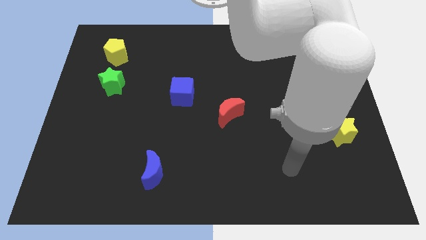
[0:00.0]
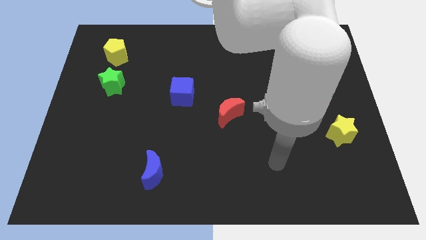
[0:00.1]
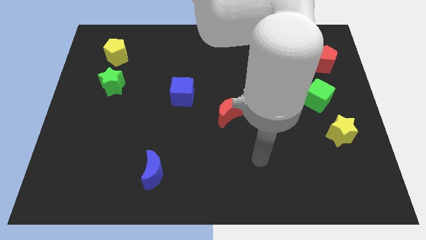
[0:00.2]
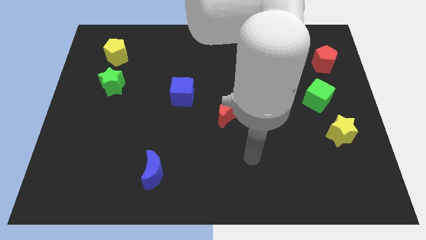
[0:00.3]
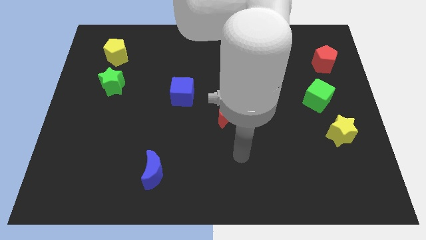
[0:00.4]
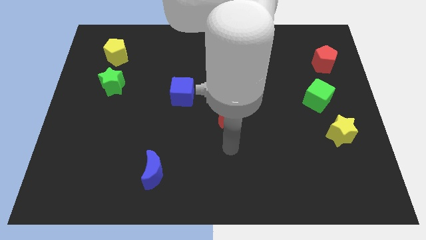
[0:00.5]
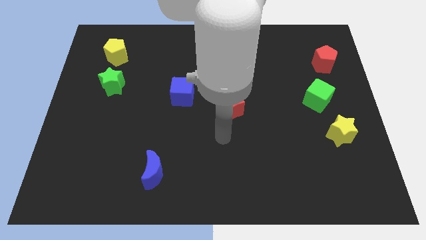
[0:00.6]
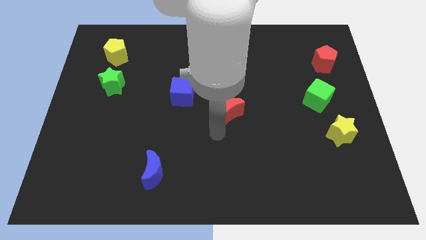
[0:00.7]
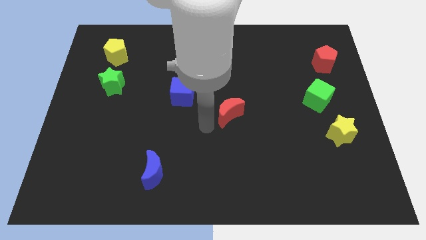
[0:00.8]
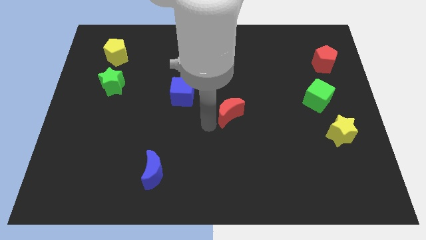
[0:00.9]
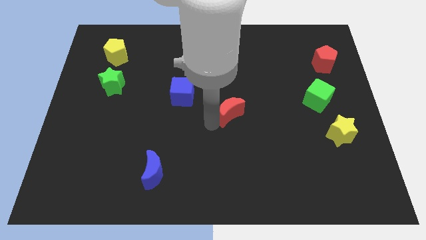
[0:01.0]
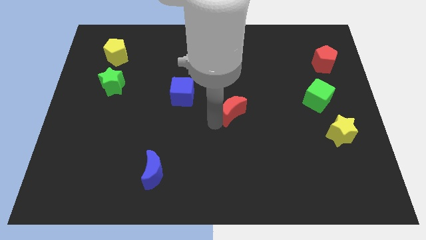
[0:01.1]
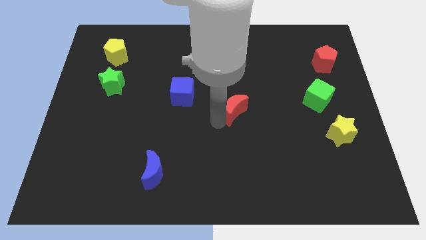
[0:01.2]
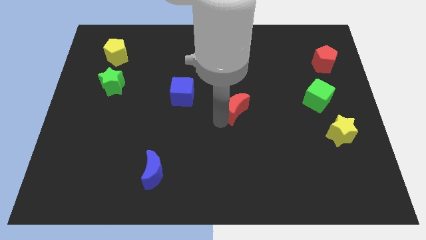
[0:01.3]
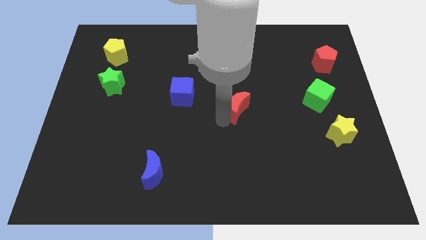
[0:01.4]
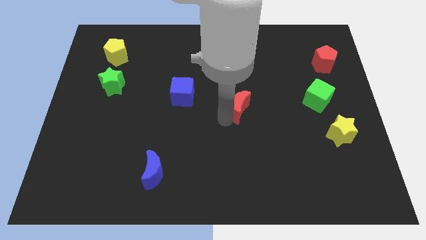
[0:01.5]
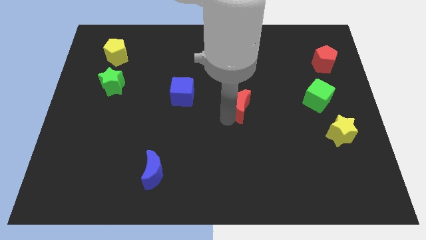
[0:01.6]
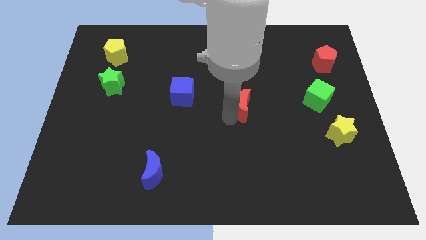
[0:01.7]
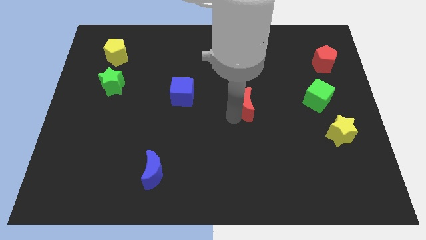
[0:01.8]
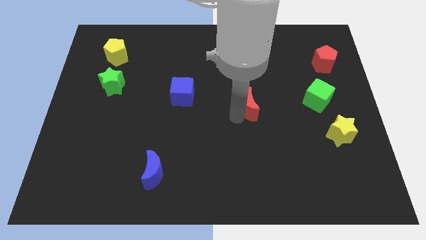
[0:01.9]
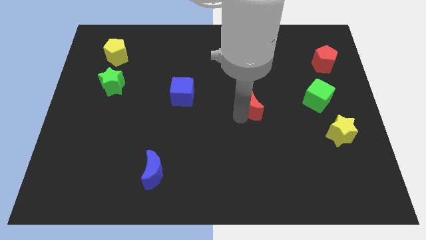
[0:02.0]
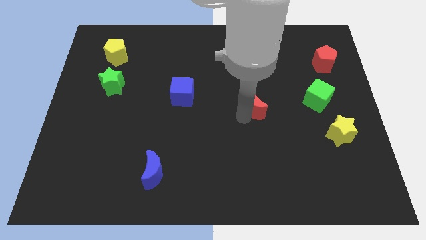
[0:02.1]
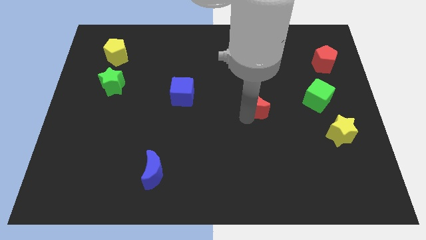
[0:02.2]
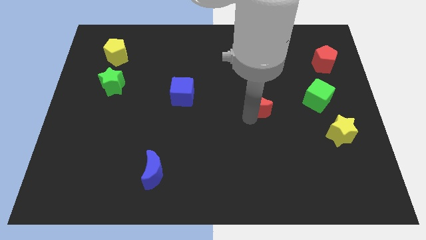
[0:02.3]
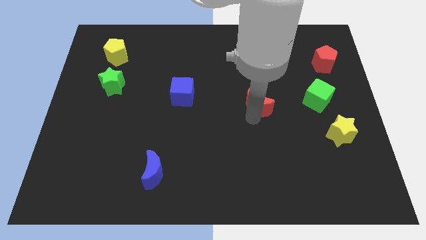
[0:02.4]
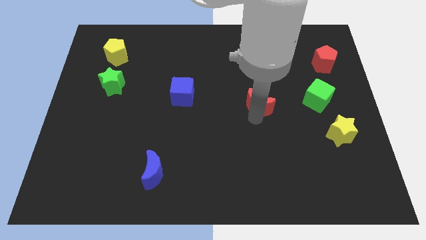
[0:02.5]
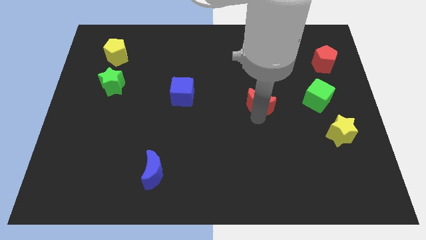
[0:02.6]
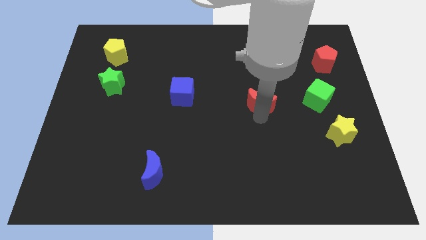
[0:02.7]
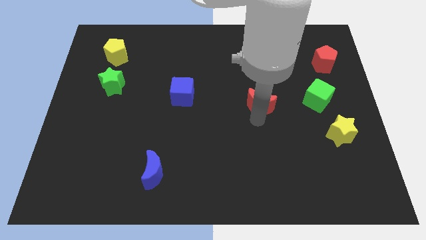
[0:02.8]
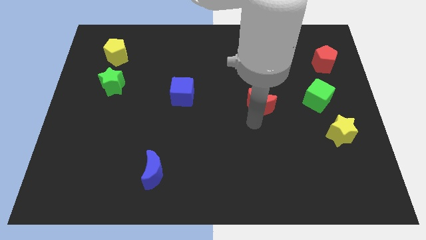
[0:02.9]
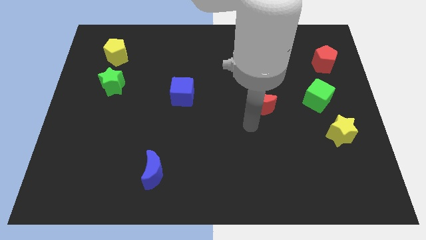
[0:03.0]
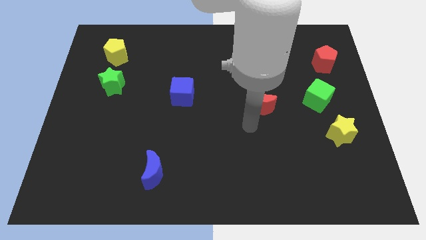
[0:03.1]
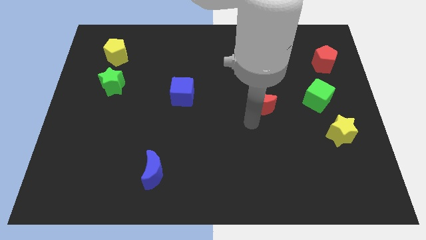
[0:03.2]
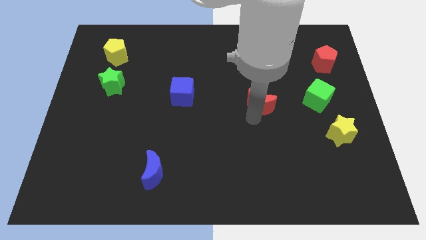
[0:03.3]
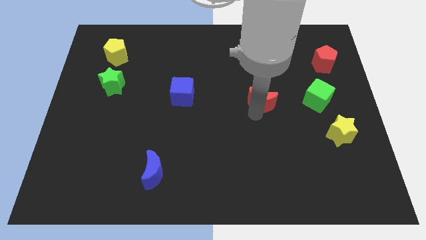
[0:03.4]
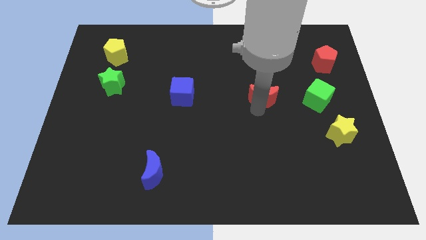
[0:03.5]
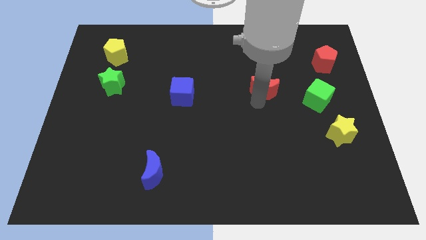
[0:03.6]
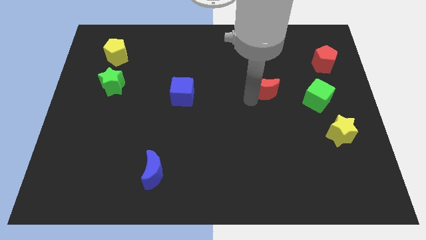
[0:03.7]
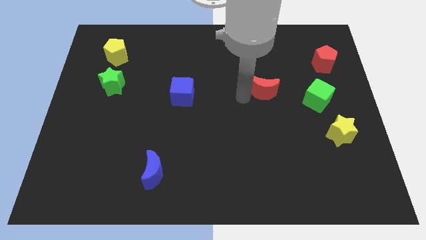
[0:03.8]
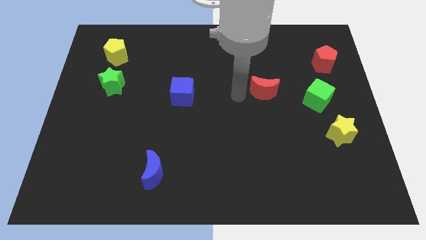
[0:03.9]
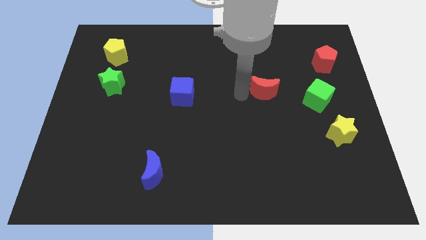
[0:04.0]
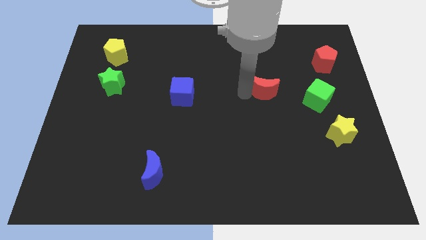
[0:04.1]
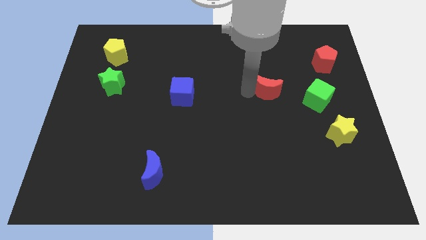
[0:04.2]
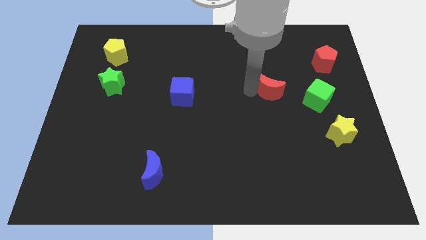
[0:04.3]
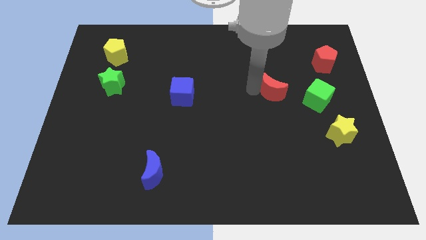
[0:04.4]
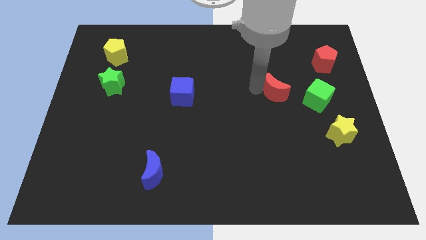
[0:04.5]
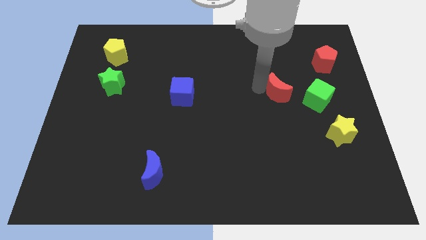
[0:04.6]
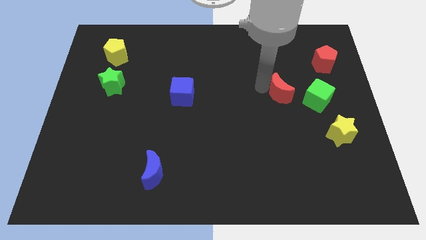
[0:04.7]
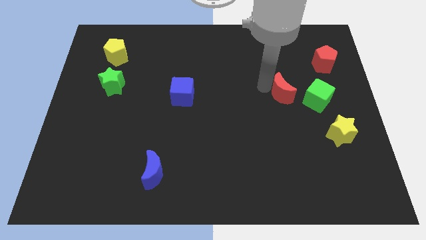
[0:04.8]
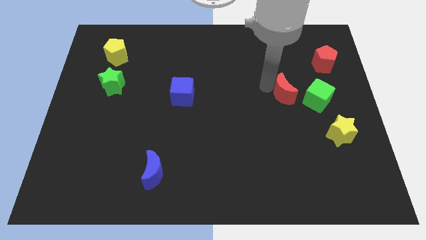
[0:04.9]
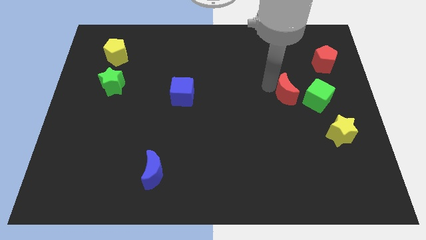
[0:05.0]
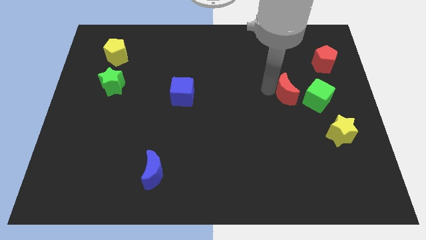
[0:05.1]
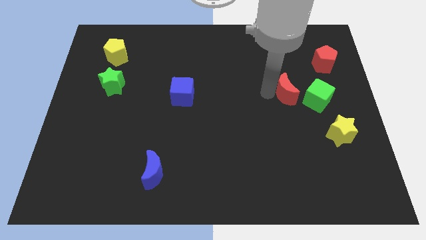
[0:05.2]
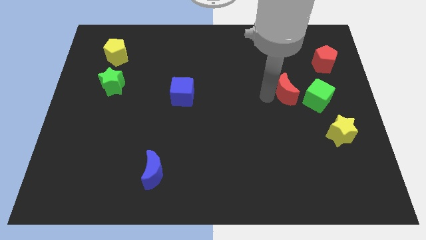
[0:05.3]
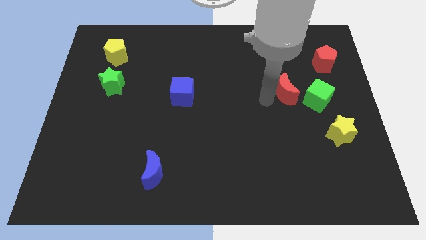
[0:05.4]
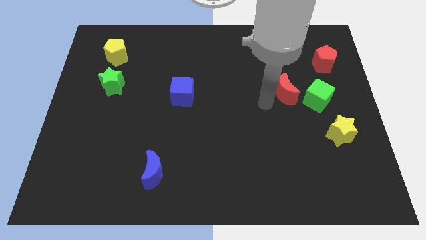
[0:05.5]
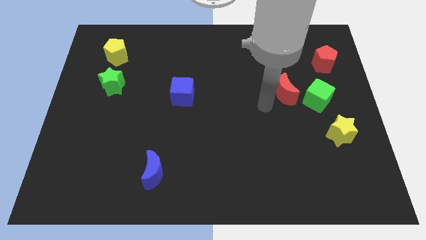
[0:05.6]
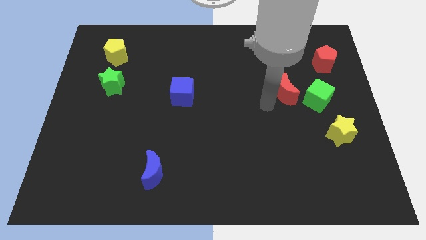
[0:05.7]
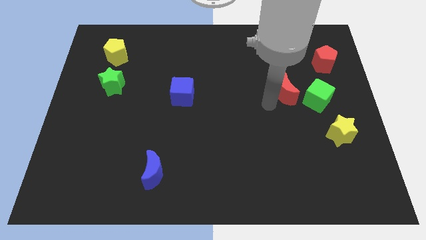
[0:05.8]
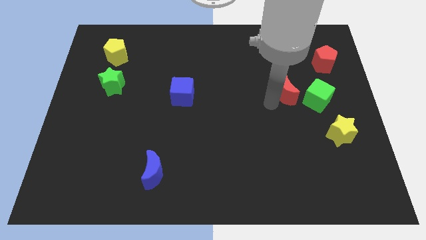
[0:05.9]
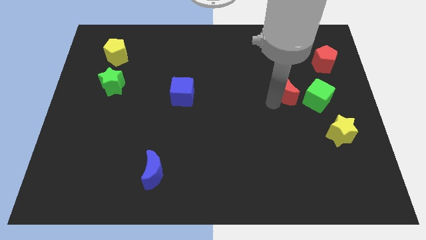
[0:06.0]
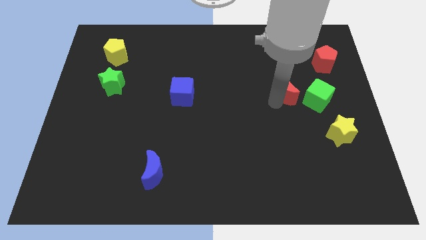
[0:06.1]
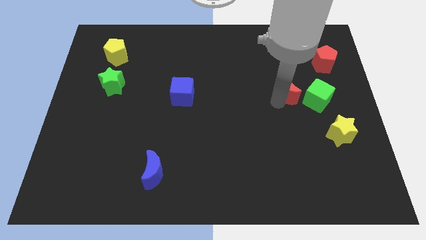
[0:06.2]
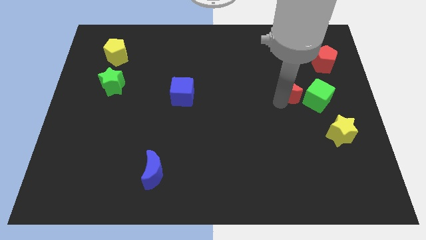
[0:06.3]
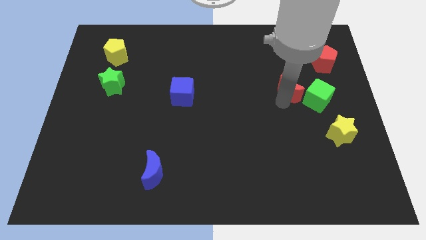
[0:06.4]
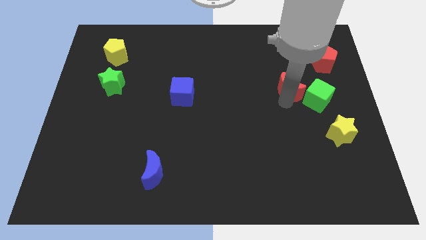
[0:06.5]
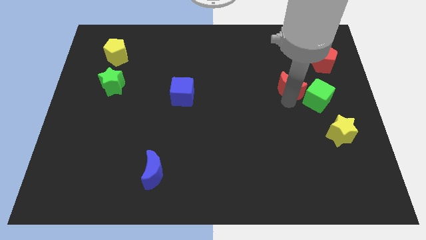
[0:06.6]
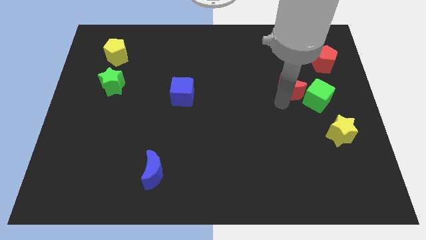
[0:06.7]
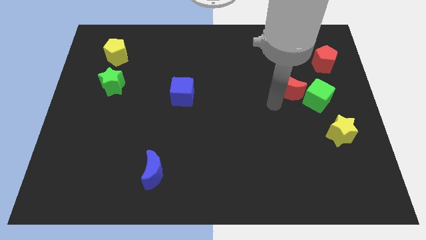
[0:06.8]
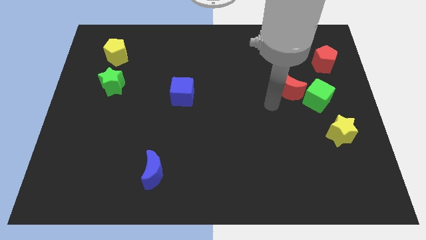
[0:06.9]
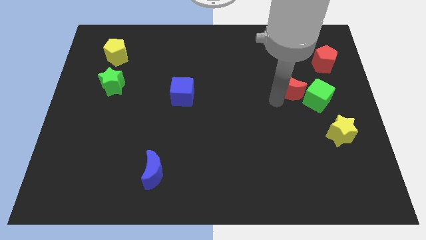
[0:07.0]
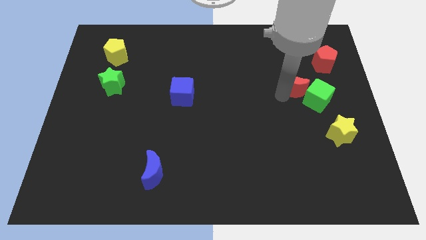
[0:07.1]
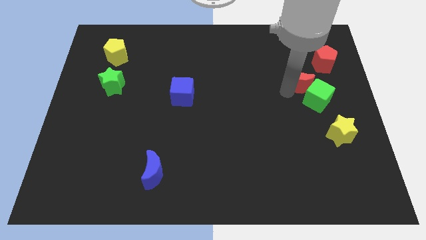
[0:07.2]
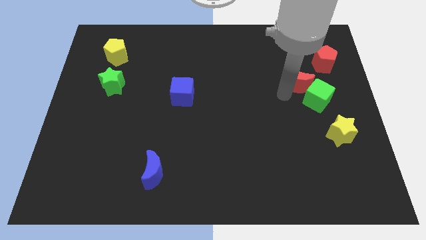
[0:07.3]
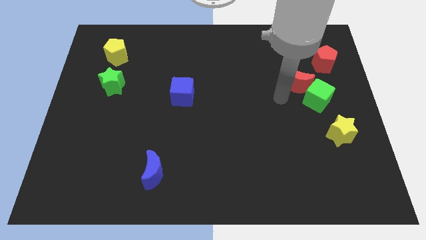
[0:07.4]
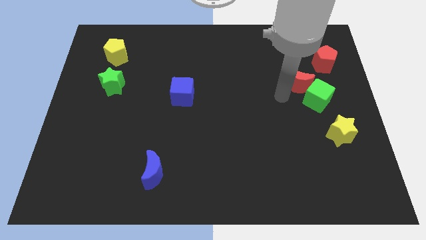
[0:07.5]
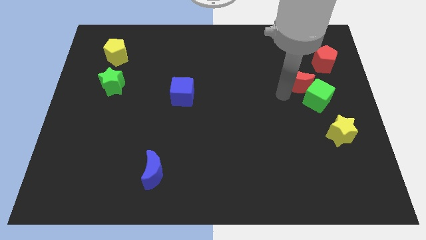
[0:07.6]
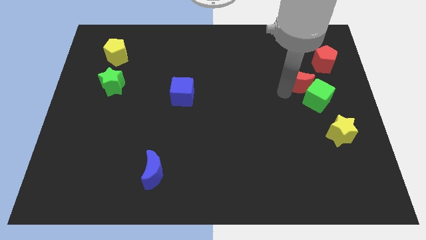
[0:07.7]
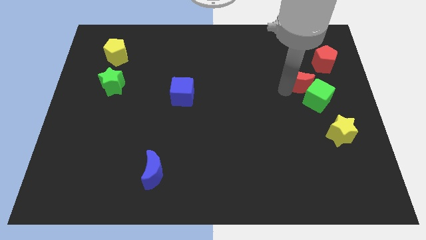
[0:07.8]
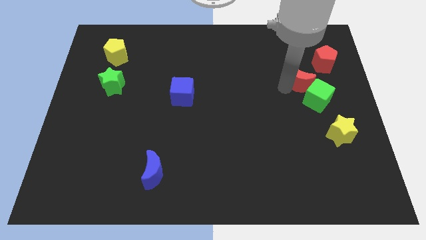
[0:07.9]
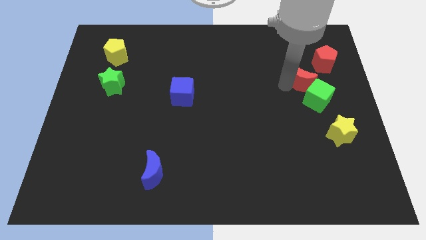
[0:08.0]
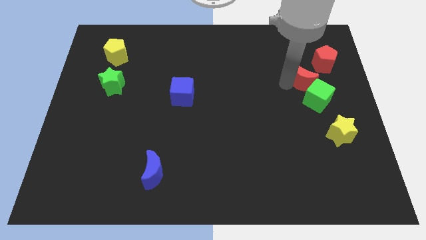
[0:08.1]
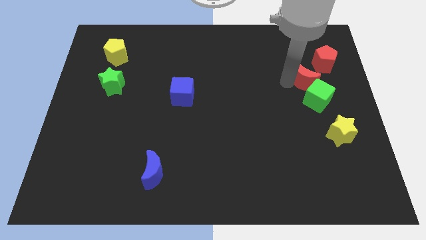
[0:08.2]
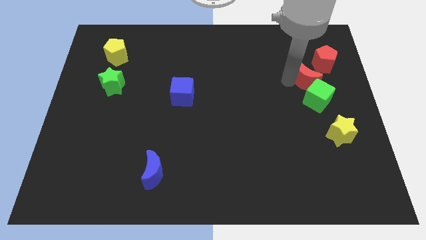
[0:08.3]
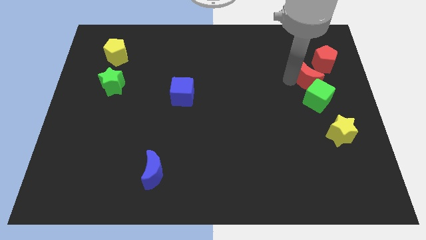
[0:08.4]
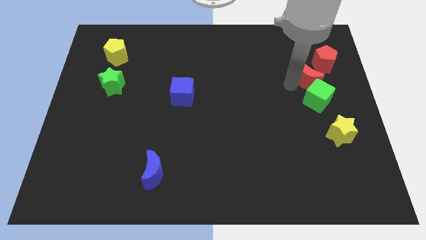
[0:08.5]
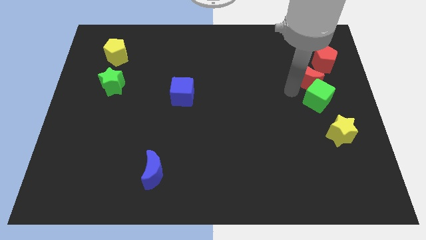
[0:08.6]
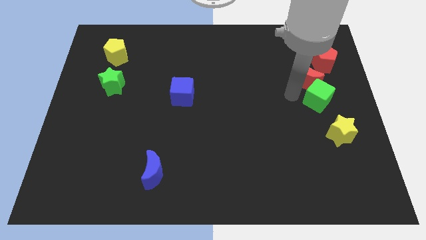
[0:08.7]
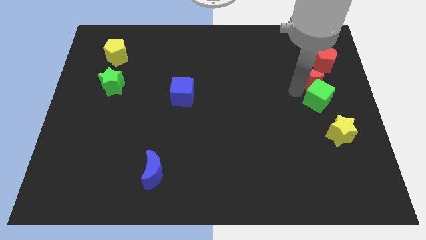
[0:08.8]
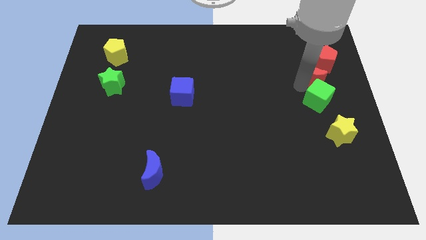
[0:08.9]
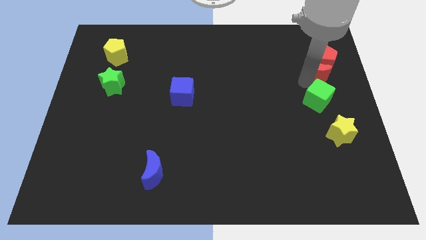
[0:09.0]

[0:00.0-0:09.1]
move the red moon next to the red pentagon
